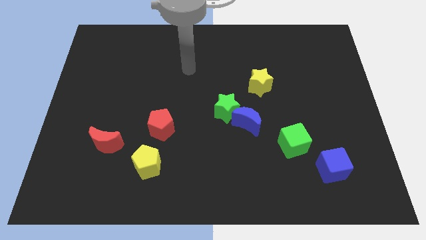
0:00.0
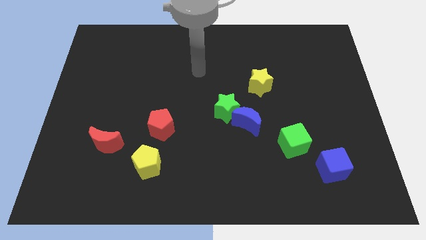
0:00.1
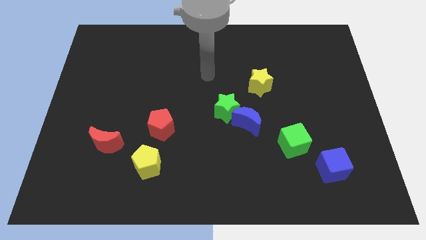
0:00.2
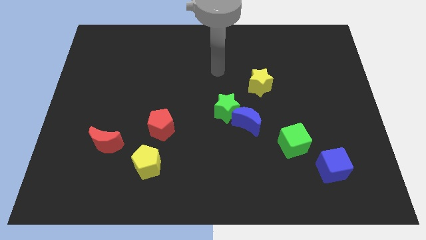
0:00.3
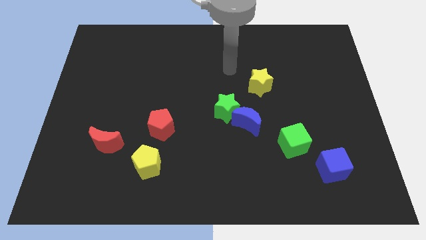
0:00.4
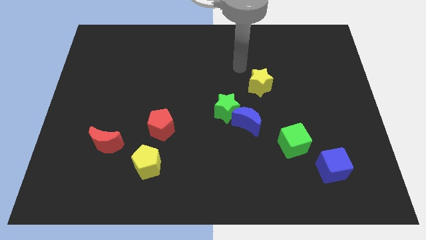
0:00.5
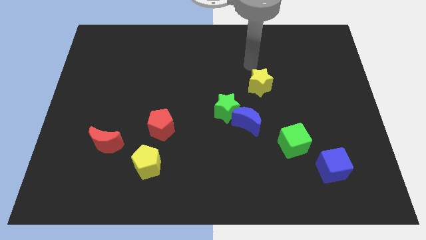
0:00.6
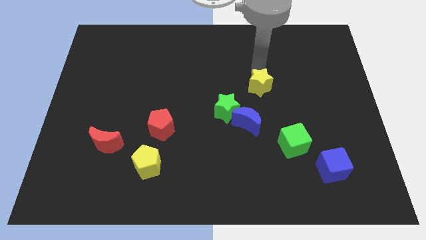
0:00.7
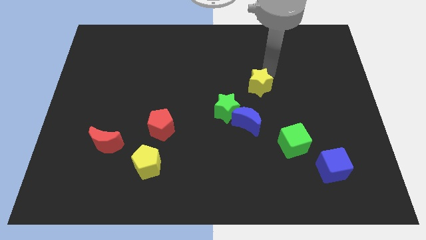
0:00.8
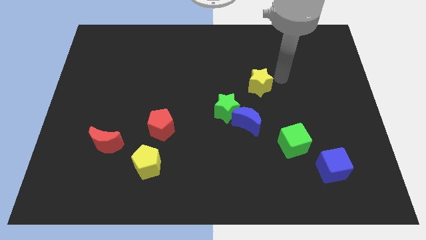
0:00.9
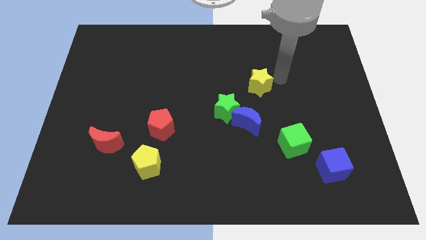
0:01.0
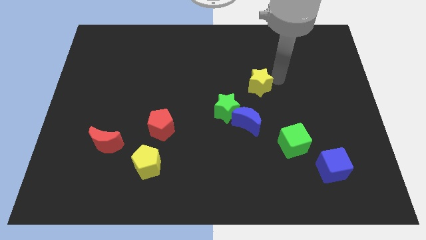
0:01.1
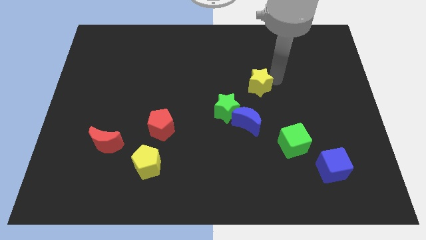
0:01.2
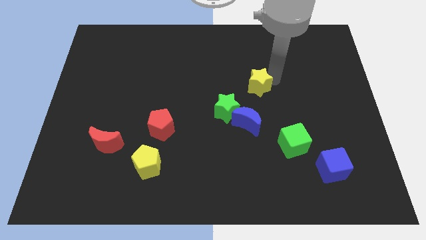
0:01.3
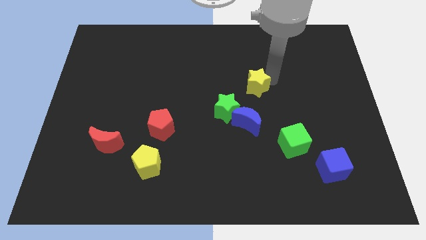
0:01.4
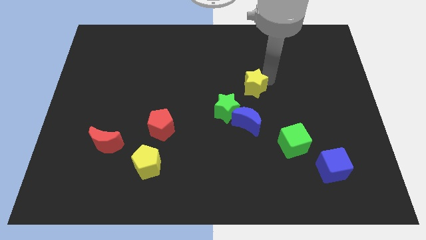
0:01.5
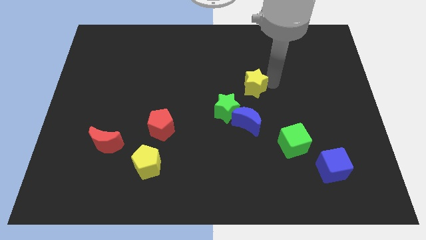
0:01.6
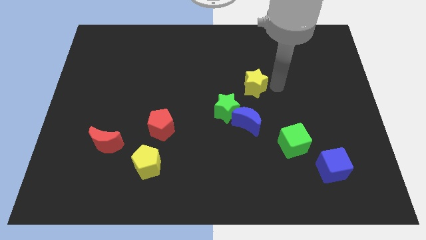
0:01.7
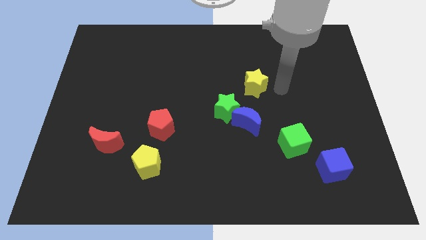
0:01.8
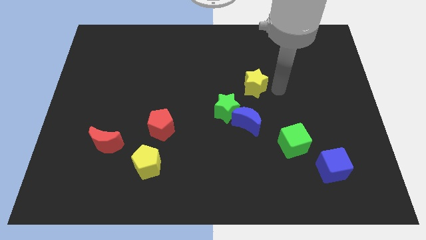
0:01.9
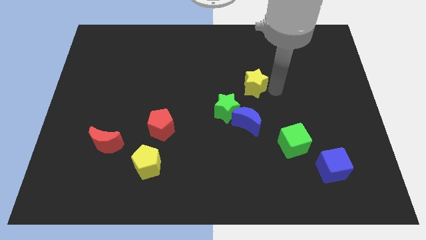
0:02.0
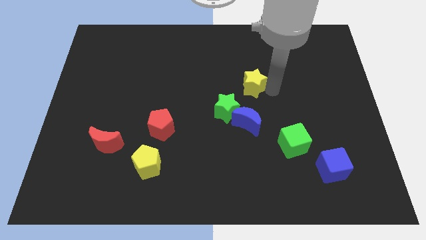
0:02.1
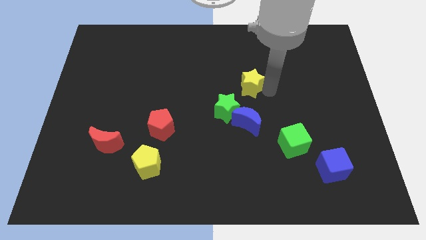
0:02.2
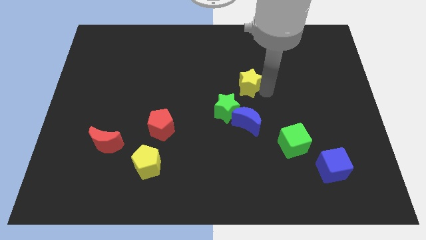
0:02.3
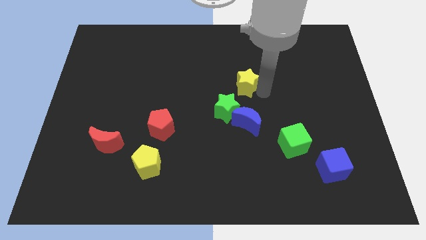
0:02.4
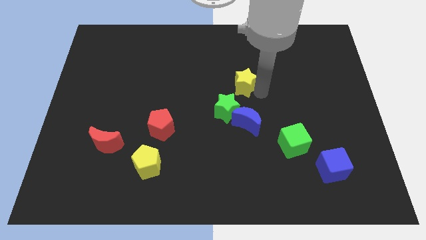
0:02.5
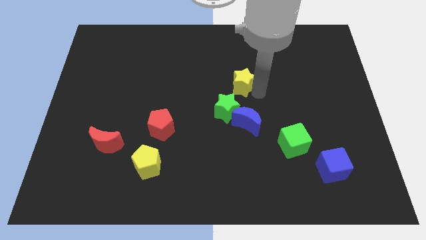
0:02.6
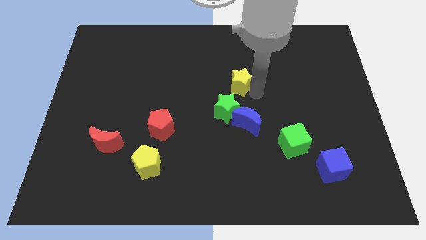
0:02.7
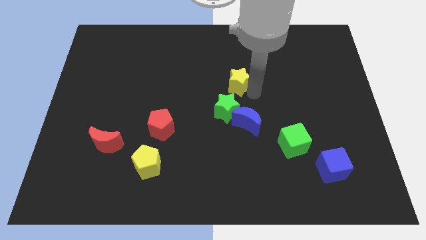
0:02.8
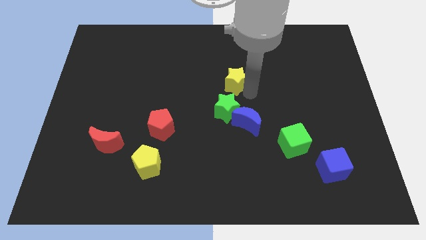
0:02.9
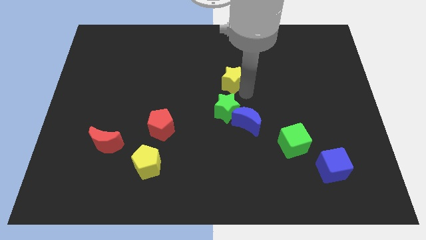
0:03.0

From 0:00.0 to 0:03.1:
push the yellow star to the left somewhat

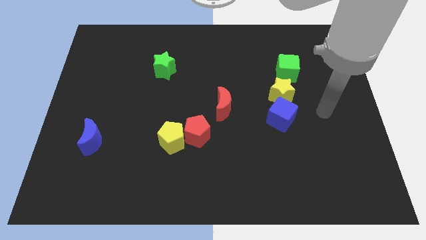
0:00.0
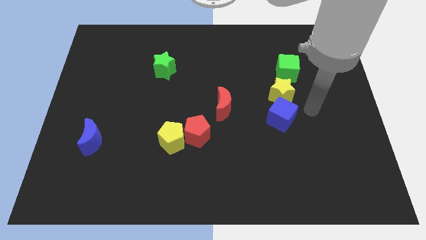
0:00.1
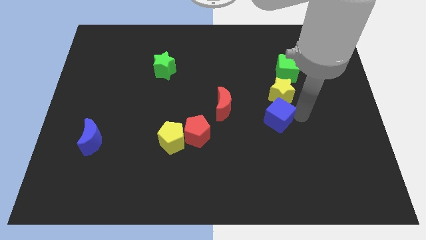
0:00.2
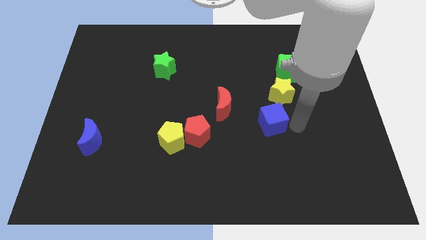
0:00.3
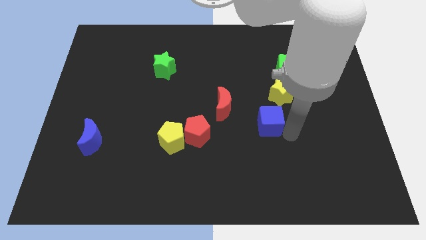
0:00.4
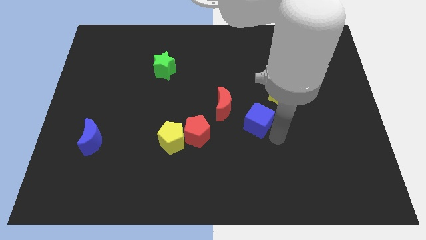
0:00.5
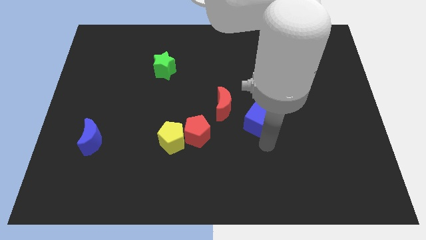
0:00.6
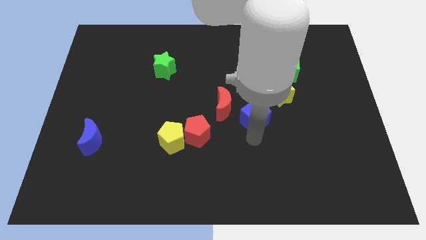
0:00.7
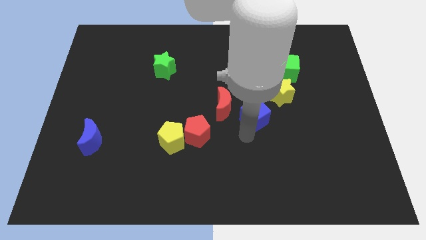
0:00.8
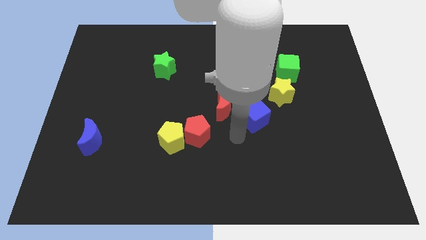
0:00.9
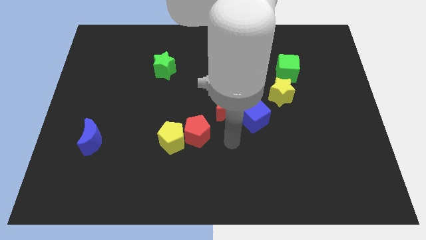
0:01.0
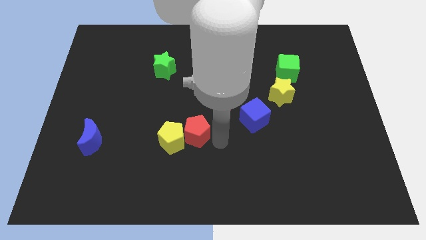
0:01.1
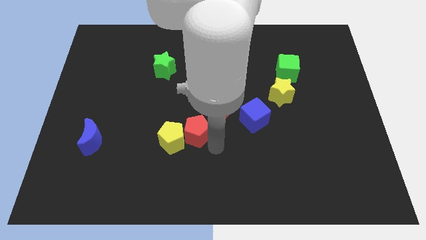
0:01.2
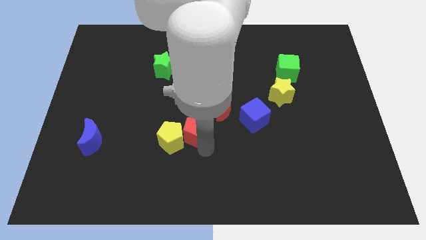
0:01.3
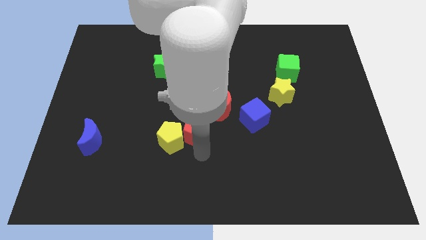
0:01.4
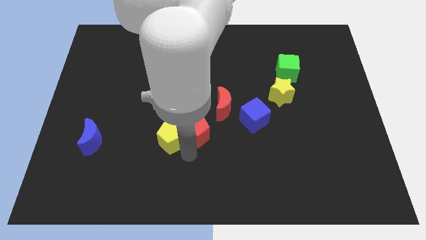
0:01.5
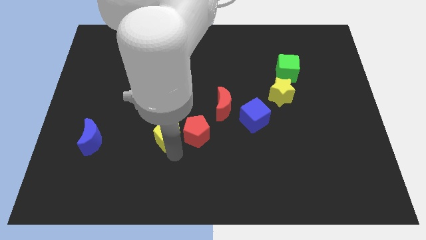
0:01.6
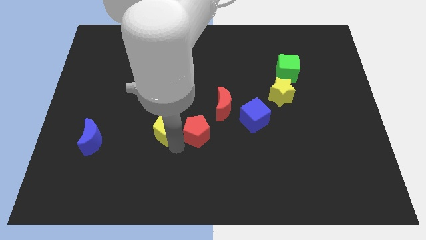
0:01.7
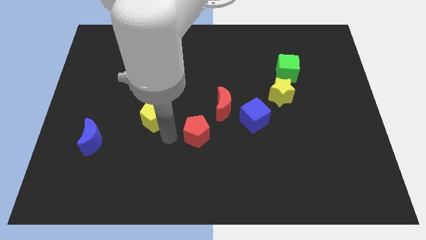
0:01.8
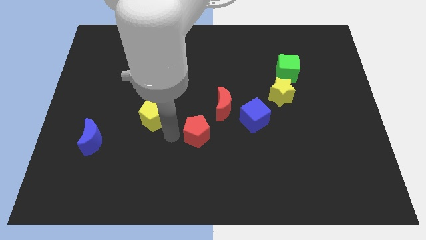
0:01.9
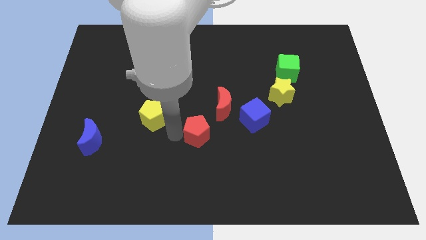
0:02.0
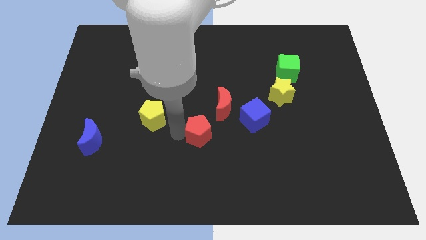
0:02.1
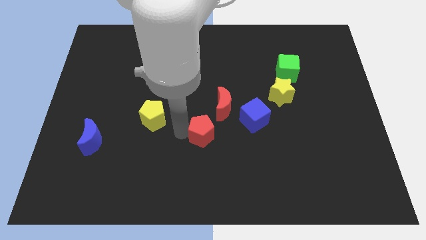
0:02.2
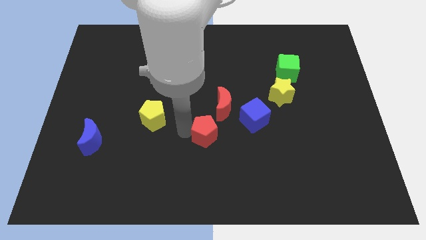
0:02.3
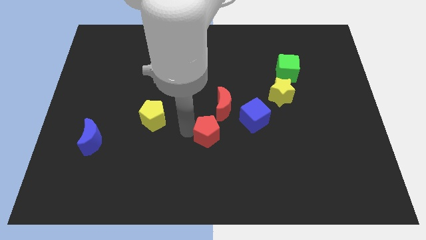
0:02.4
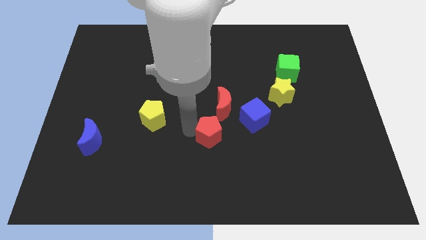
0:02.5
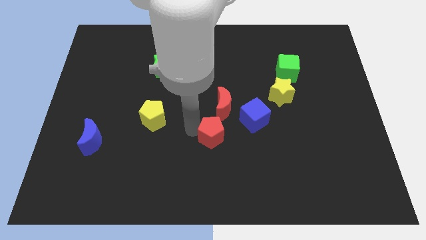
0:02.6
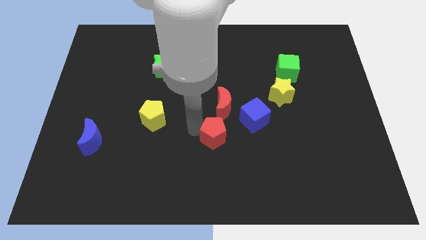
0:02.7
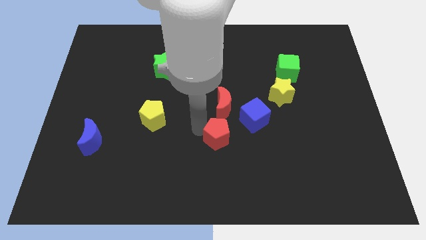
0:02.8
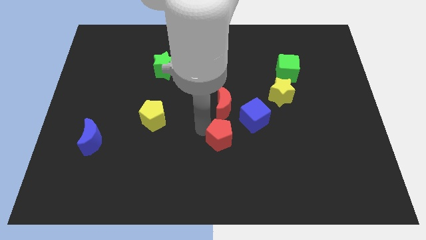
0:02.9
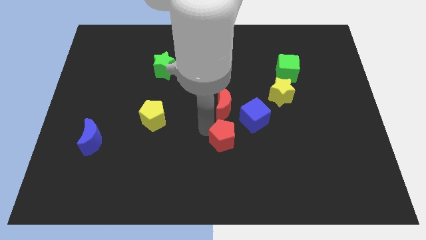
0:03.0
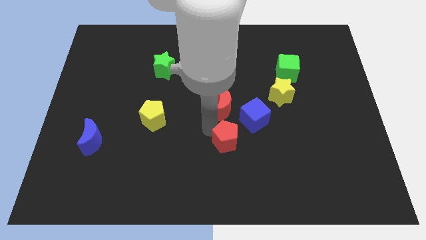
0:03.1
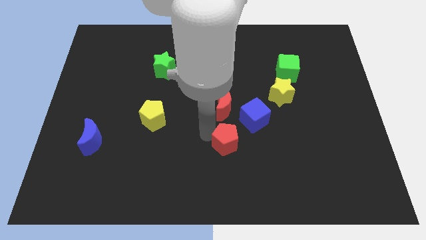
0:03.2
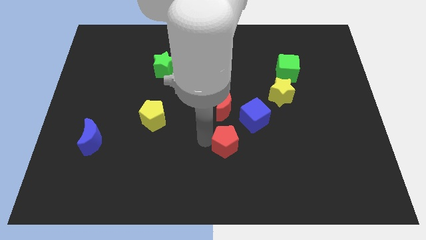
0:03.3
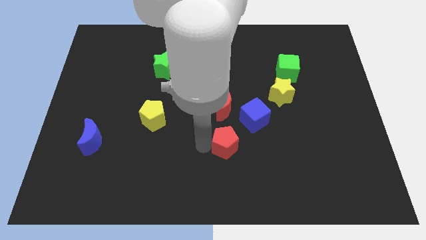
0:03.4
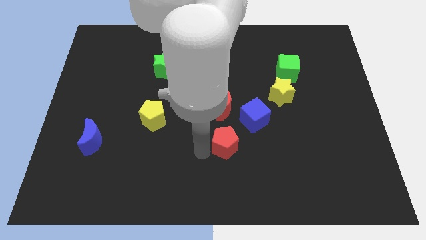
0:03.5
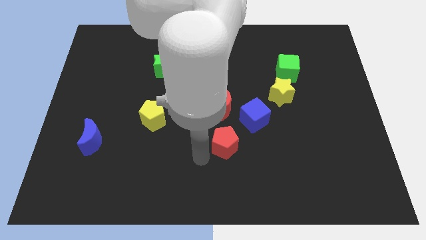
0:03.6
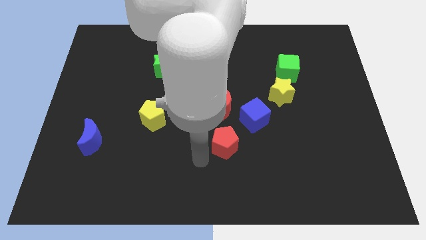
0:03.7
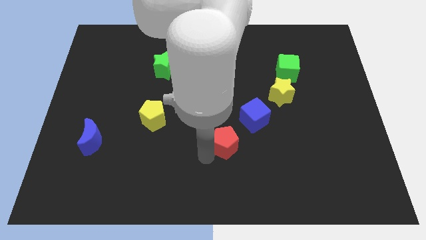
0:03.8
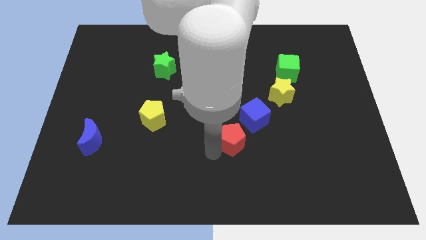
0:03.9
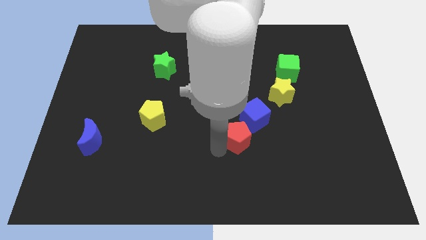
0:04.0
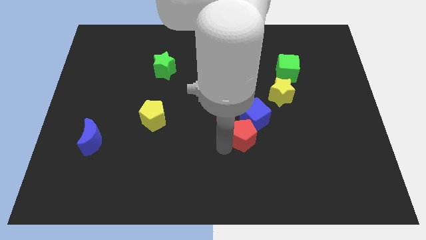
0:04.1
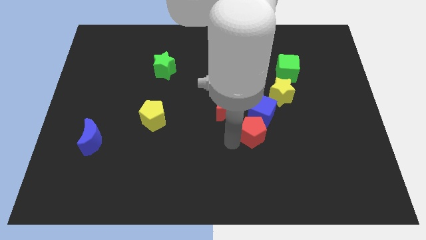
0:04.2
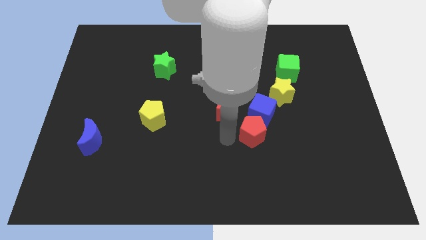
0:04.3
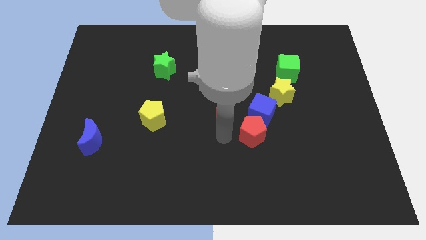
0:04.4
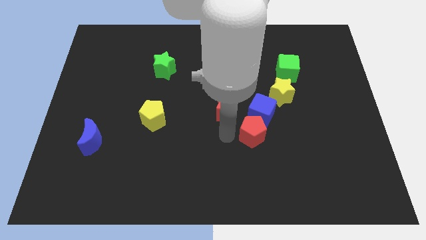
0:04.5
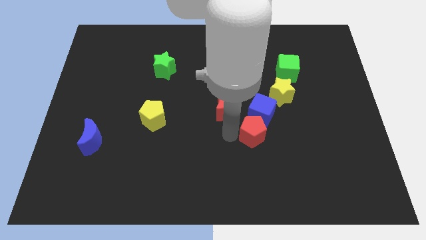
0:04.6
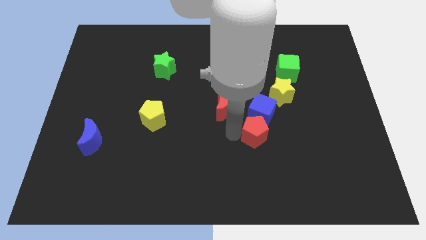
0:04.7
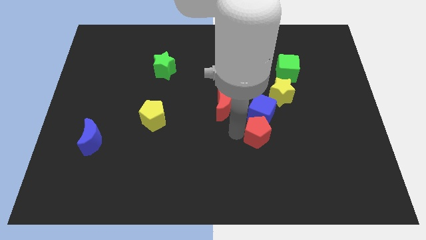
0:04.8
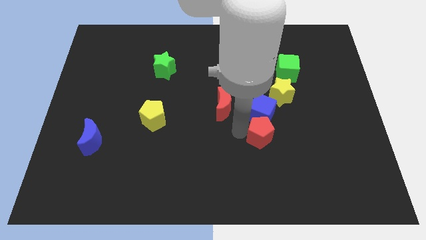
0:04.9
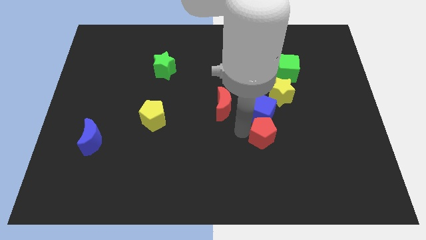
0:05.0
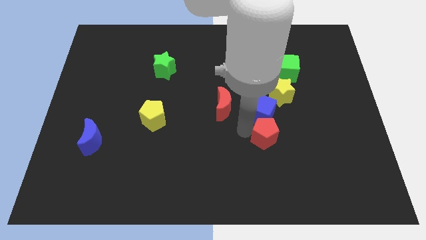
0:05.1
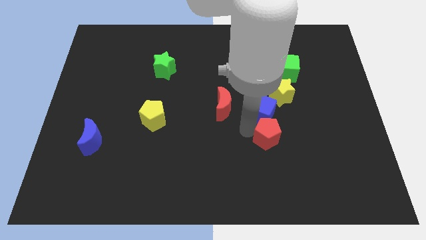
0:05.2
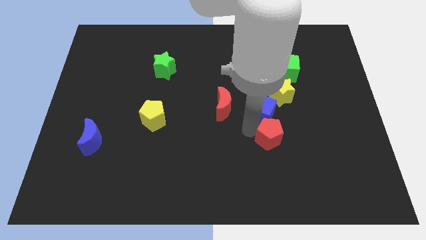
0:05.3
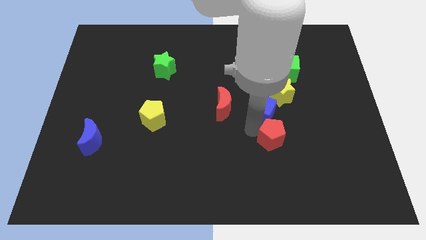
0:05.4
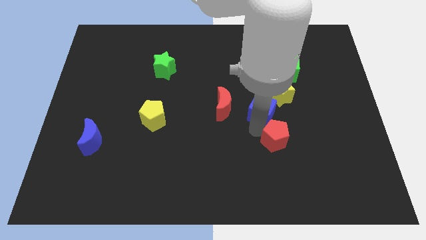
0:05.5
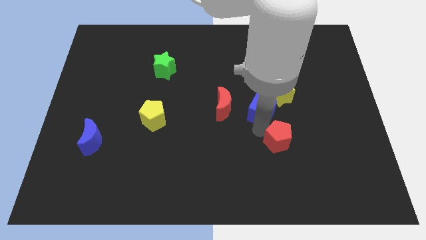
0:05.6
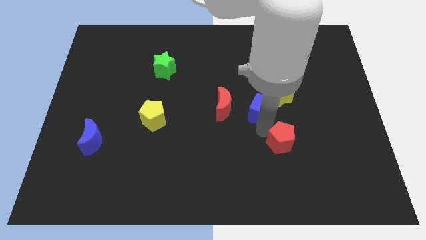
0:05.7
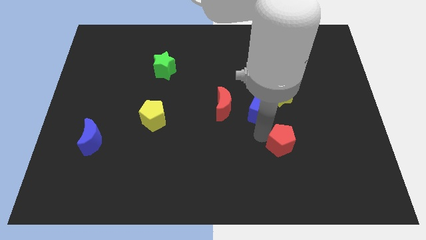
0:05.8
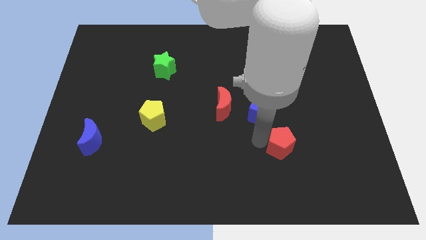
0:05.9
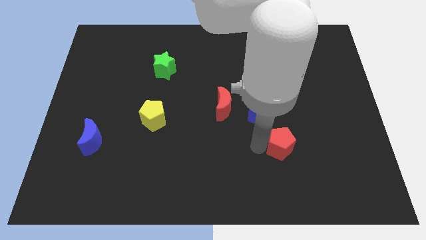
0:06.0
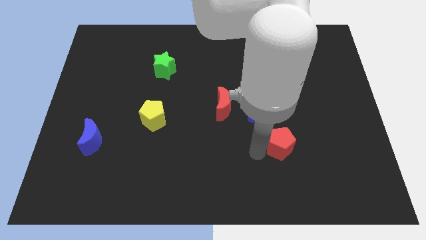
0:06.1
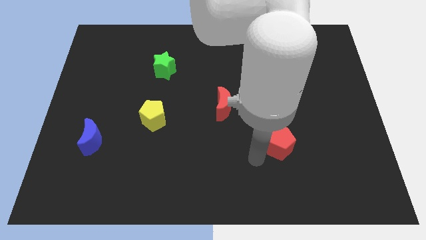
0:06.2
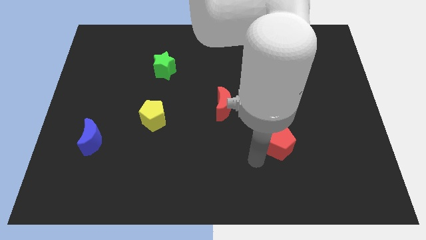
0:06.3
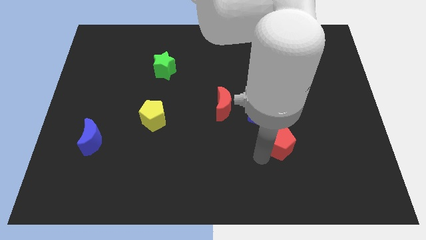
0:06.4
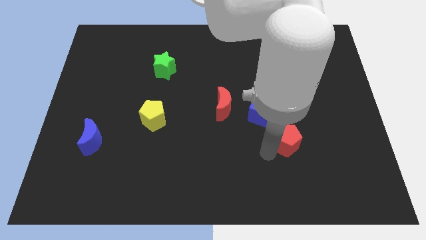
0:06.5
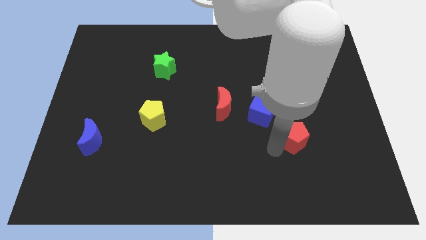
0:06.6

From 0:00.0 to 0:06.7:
push the red pentagon right
